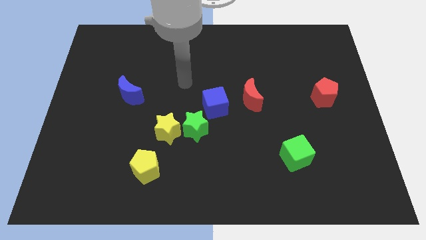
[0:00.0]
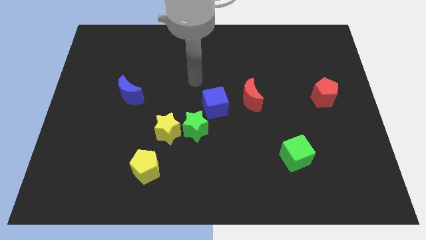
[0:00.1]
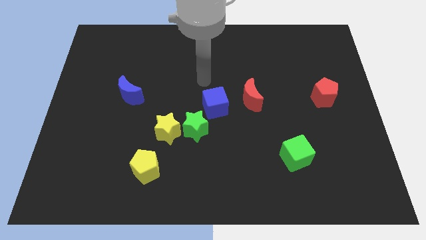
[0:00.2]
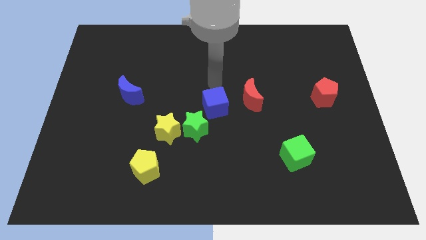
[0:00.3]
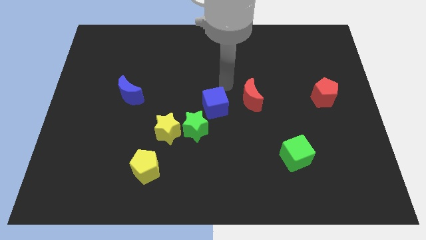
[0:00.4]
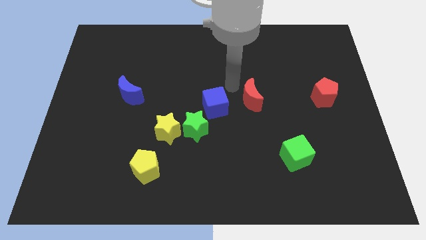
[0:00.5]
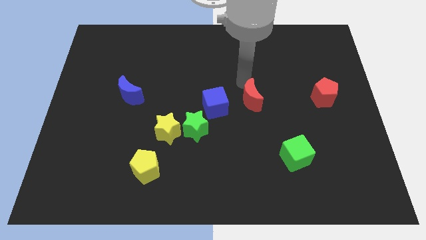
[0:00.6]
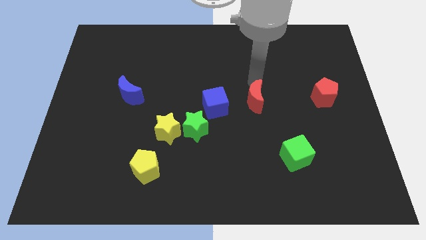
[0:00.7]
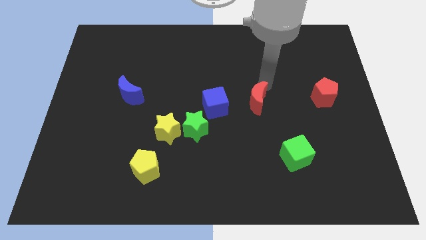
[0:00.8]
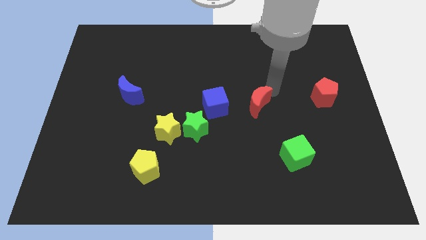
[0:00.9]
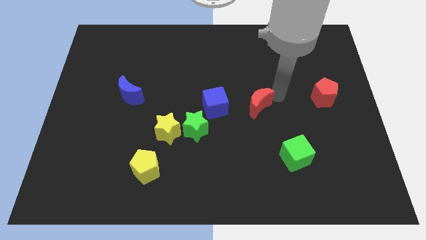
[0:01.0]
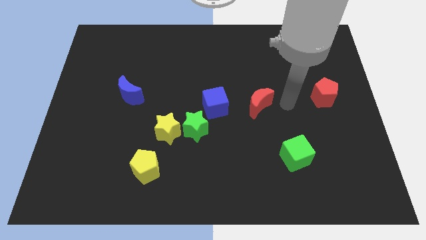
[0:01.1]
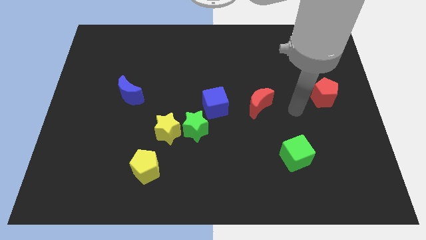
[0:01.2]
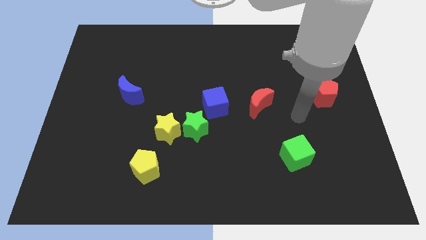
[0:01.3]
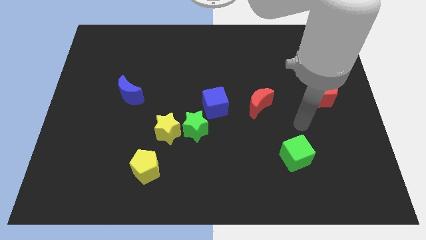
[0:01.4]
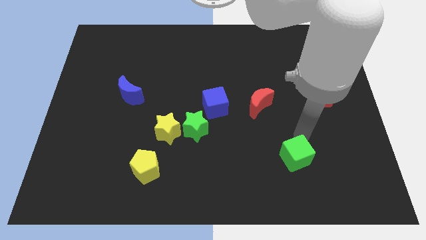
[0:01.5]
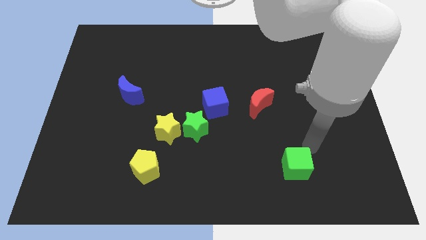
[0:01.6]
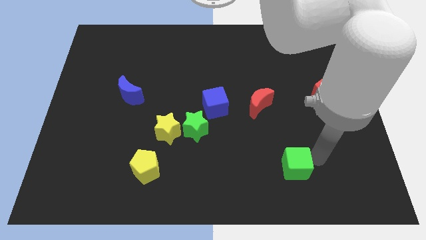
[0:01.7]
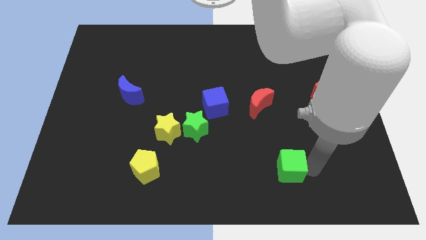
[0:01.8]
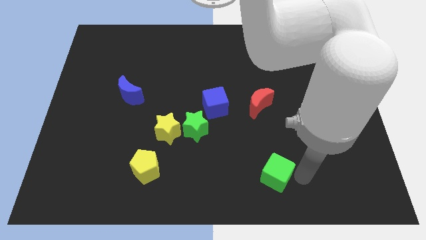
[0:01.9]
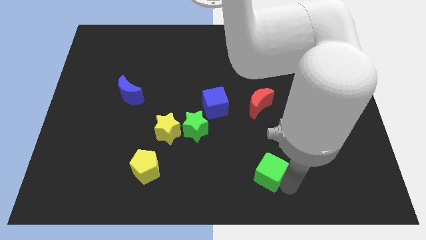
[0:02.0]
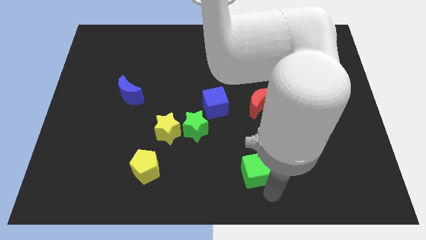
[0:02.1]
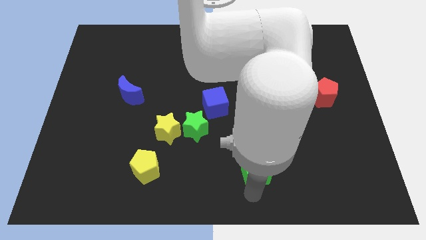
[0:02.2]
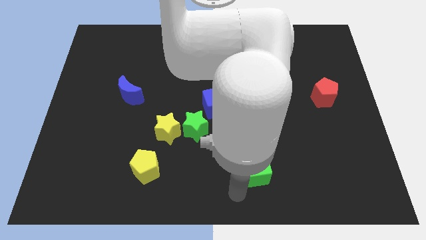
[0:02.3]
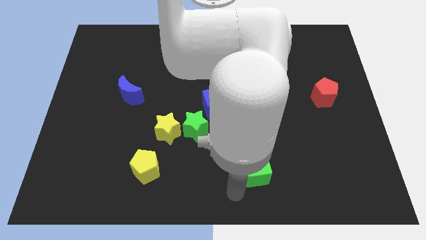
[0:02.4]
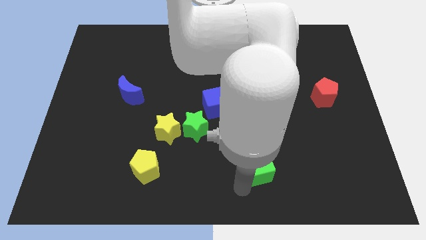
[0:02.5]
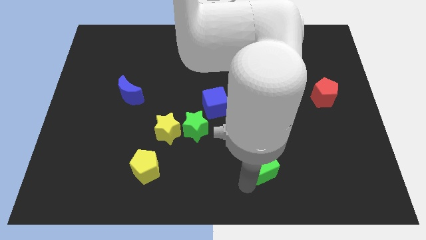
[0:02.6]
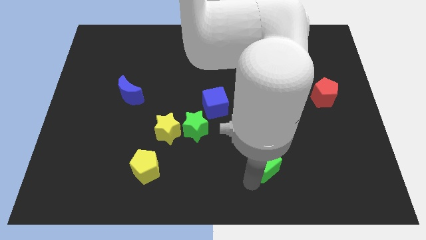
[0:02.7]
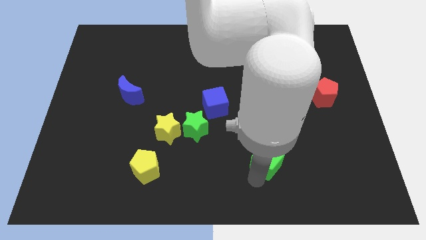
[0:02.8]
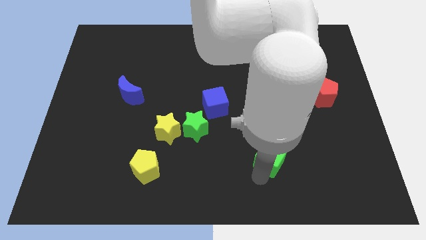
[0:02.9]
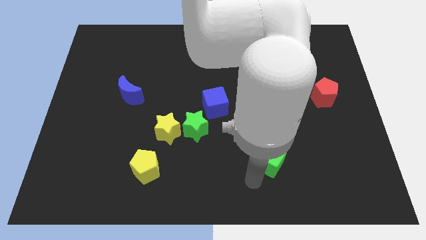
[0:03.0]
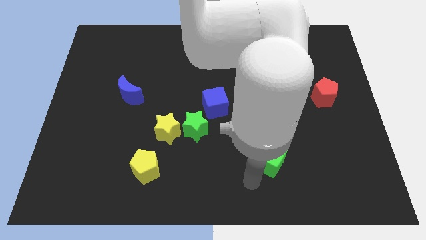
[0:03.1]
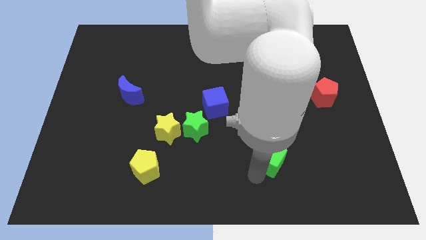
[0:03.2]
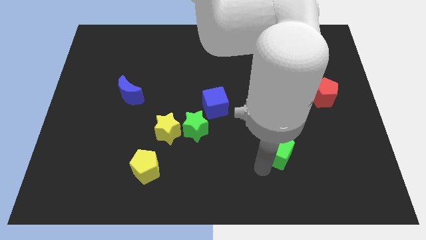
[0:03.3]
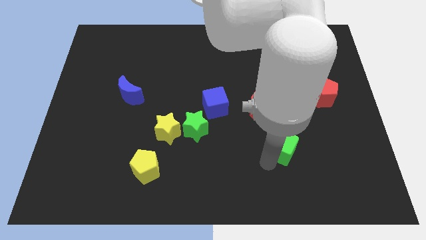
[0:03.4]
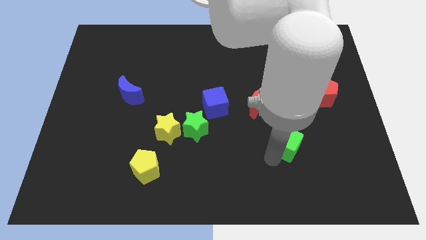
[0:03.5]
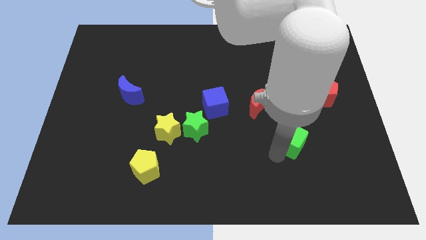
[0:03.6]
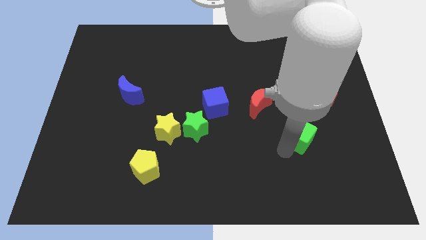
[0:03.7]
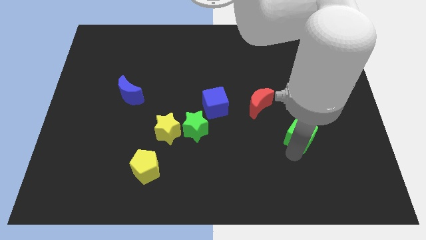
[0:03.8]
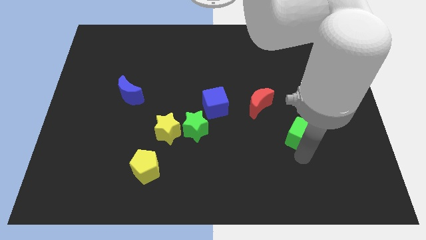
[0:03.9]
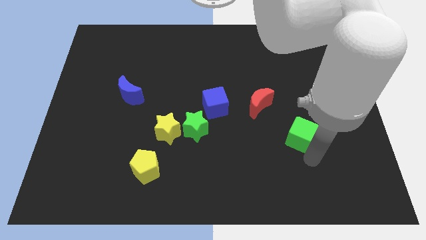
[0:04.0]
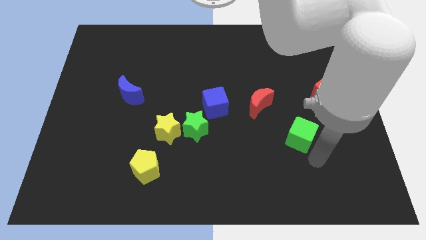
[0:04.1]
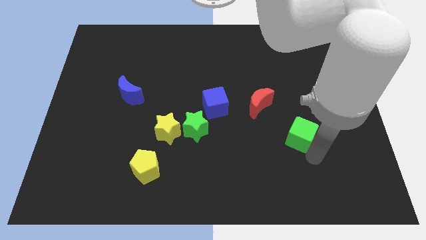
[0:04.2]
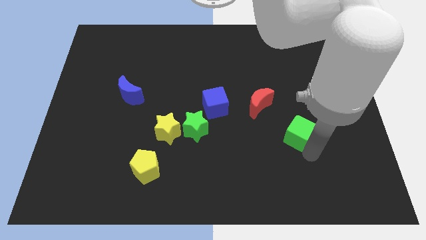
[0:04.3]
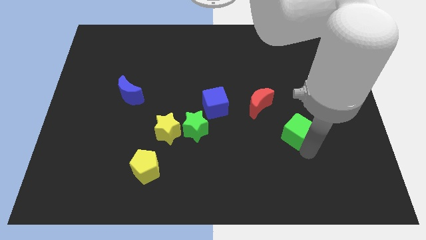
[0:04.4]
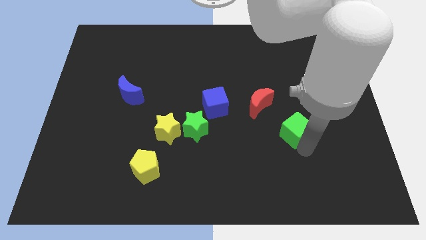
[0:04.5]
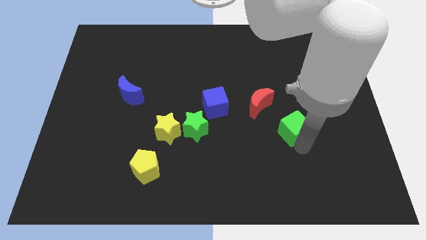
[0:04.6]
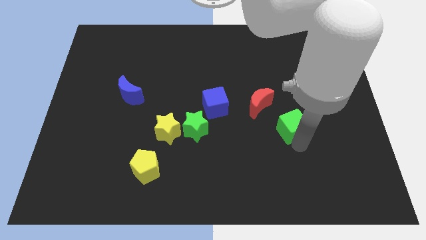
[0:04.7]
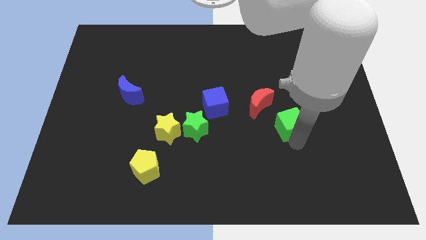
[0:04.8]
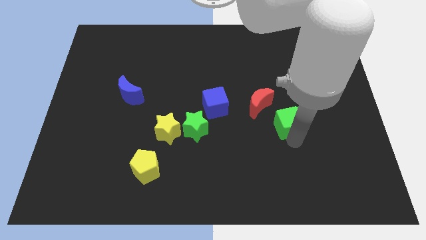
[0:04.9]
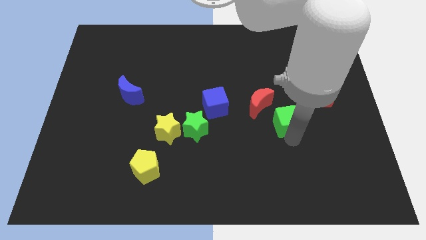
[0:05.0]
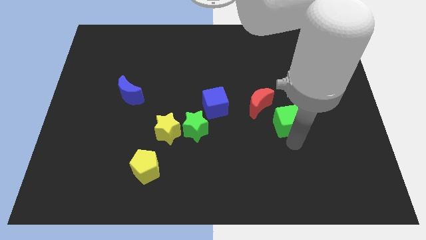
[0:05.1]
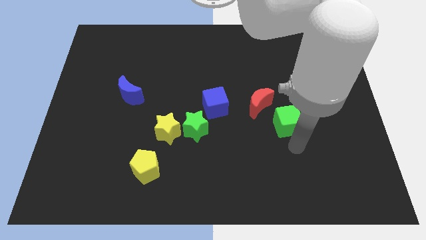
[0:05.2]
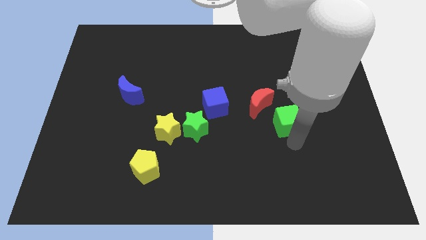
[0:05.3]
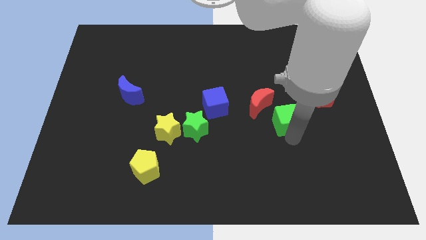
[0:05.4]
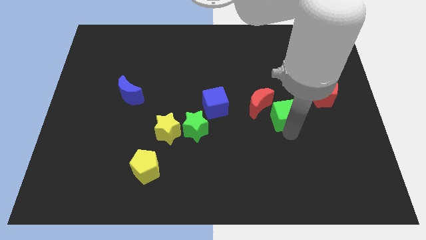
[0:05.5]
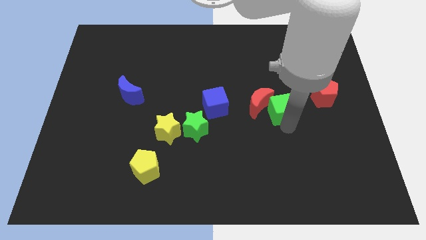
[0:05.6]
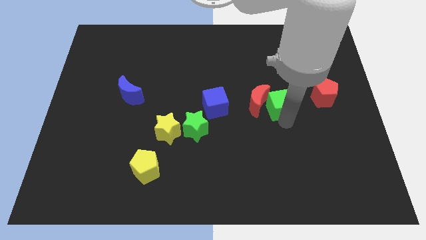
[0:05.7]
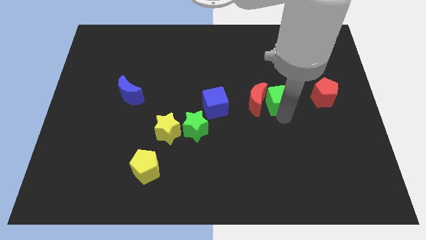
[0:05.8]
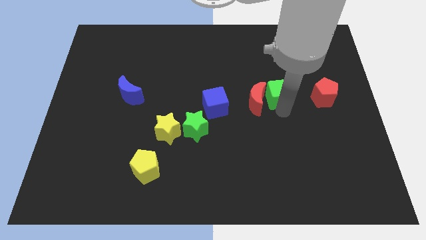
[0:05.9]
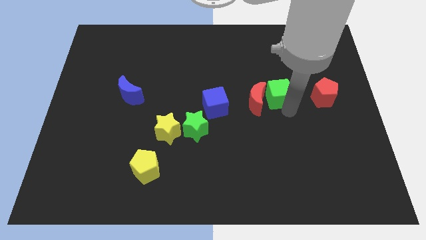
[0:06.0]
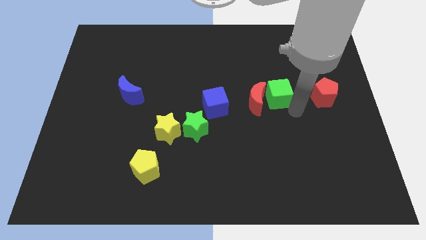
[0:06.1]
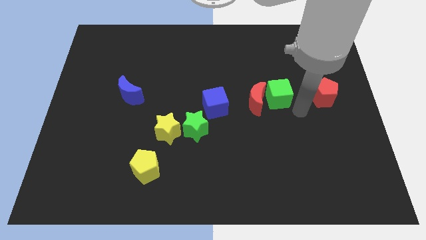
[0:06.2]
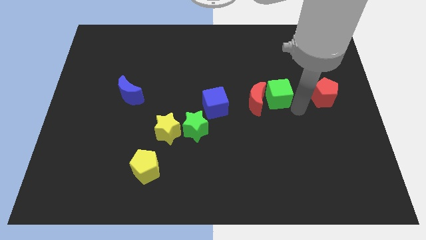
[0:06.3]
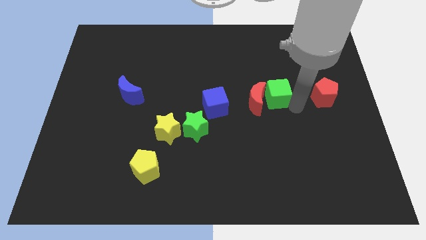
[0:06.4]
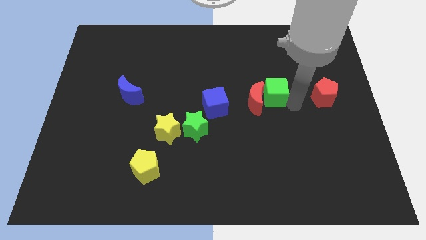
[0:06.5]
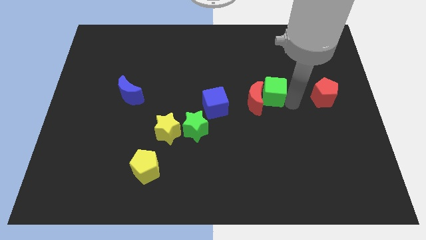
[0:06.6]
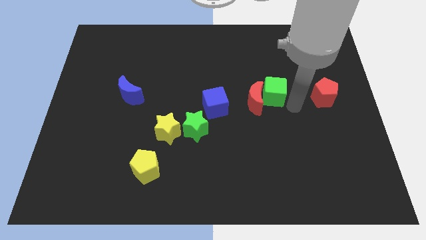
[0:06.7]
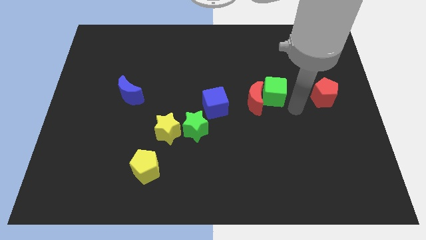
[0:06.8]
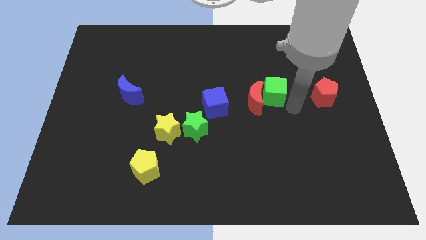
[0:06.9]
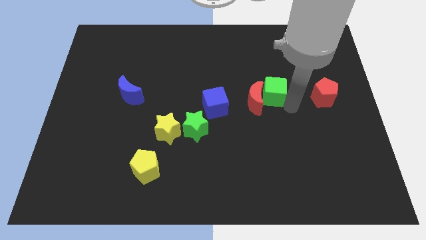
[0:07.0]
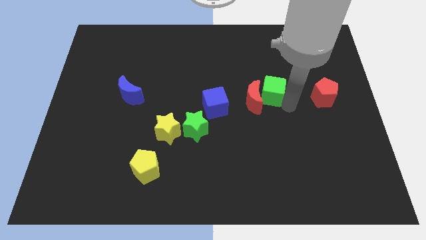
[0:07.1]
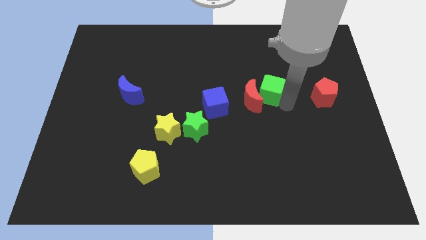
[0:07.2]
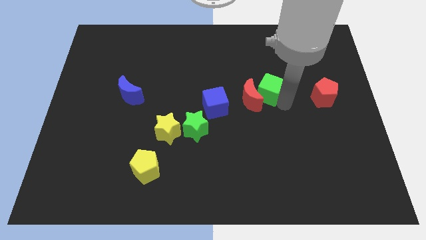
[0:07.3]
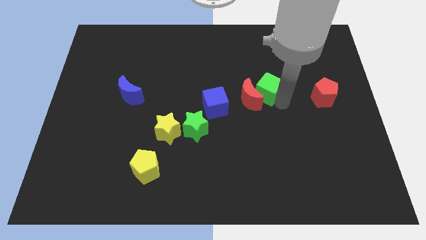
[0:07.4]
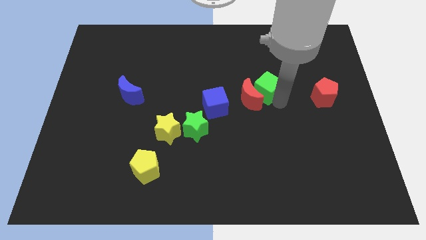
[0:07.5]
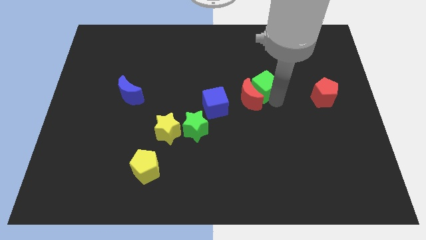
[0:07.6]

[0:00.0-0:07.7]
put the green cube to the top of the red moon
